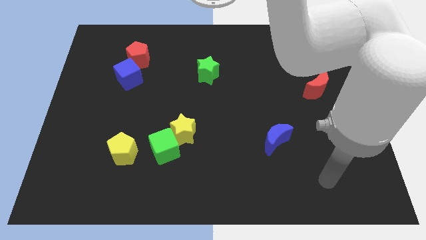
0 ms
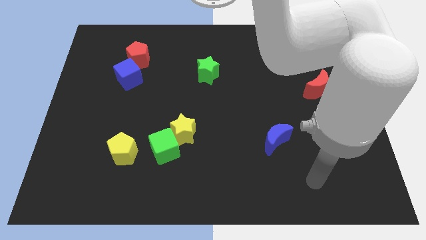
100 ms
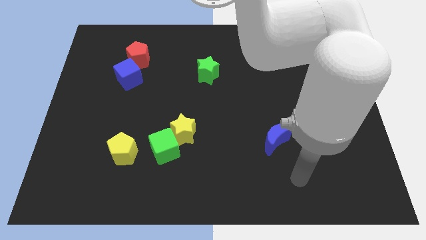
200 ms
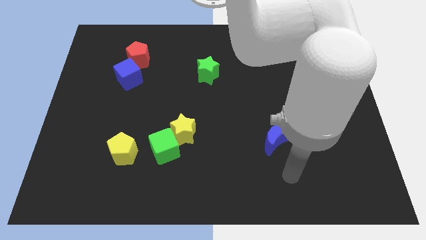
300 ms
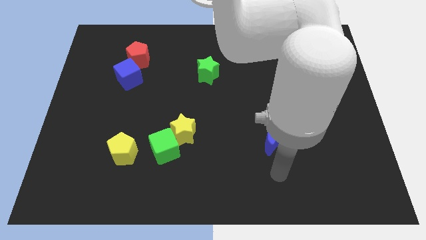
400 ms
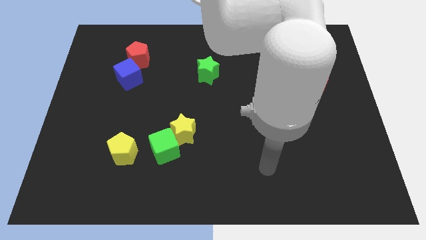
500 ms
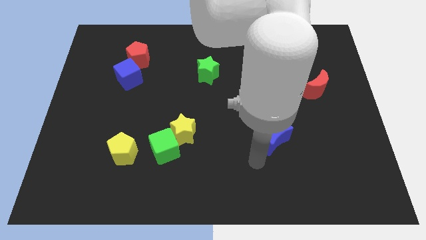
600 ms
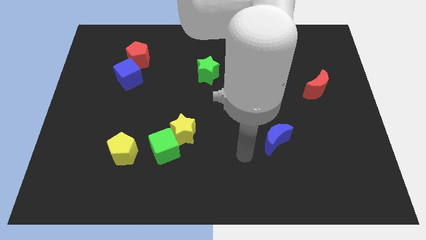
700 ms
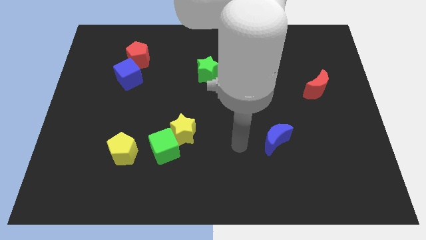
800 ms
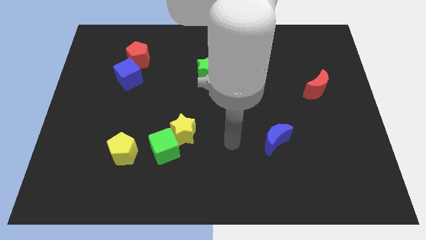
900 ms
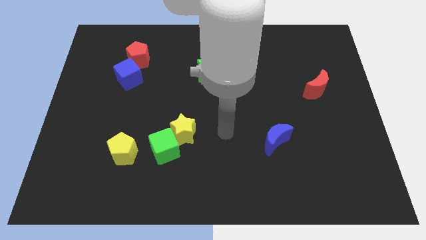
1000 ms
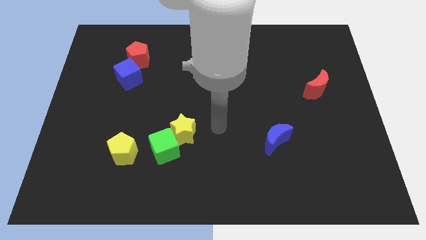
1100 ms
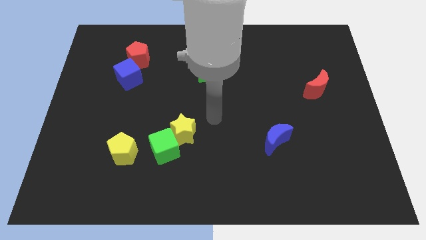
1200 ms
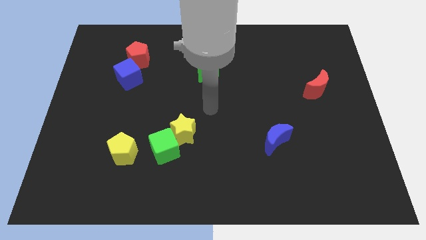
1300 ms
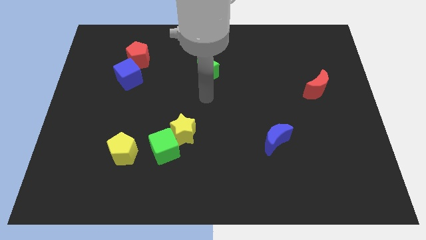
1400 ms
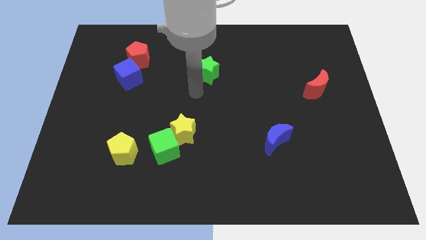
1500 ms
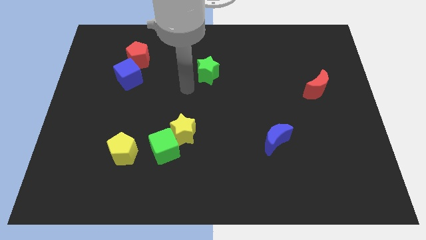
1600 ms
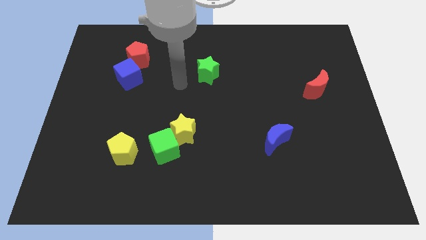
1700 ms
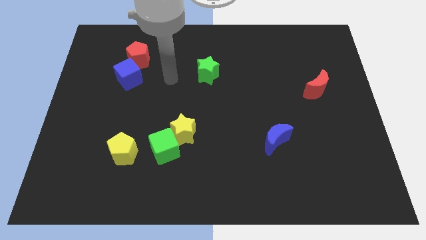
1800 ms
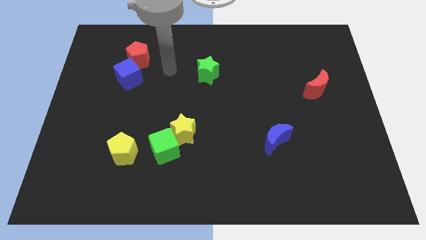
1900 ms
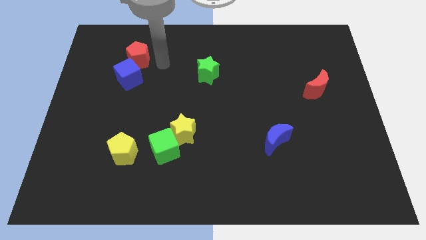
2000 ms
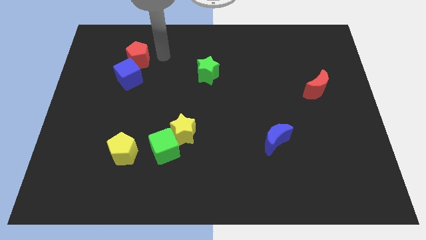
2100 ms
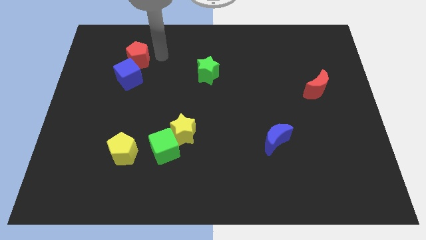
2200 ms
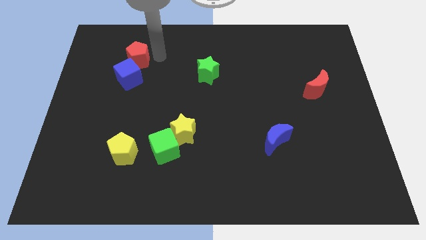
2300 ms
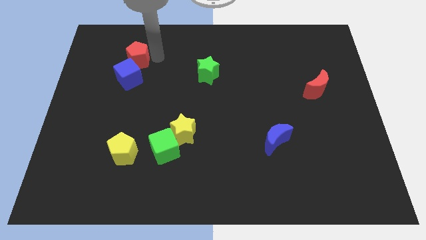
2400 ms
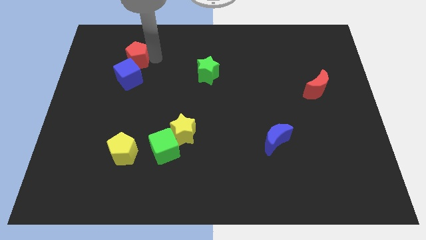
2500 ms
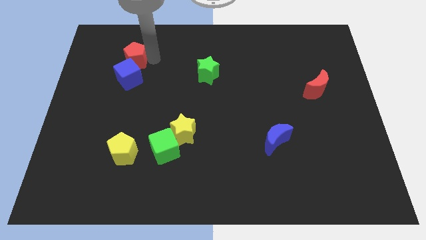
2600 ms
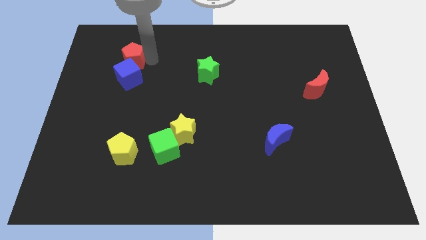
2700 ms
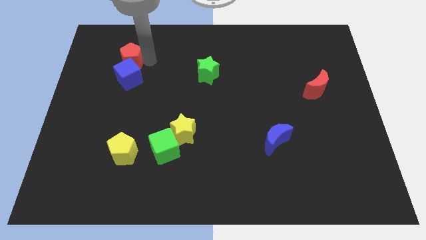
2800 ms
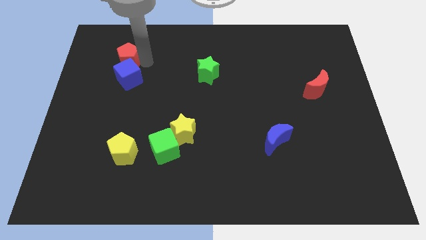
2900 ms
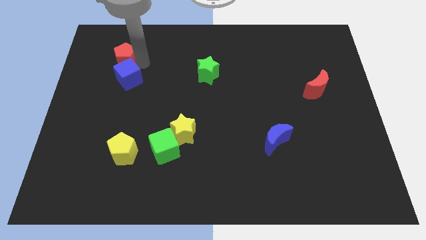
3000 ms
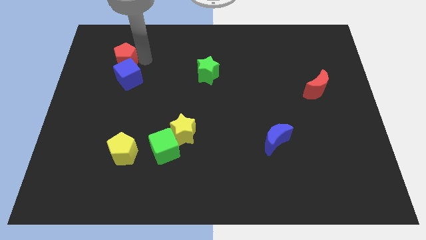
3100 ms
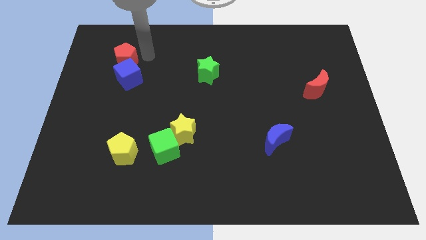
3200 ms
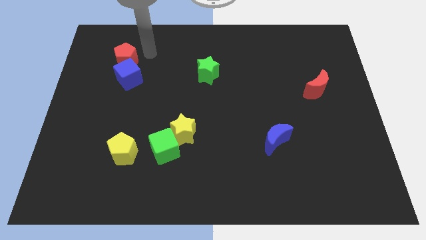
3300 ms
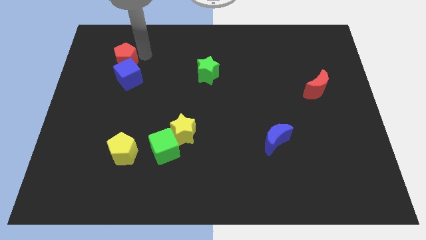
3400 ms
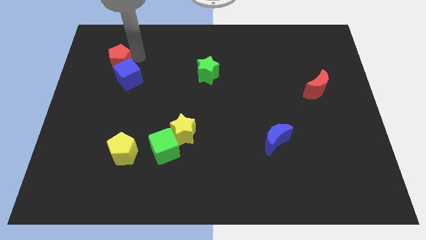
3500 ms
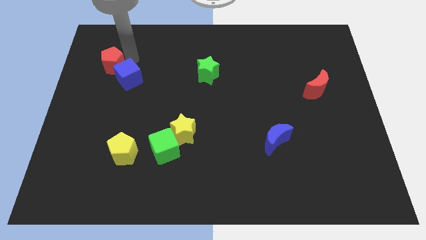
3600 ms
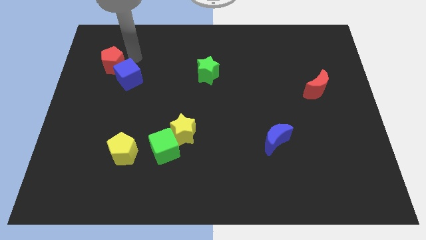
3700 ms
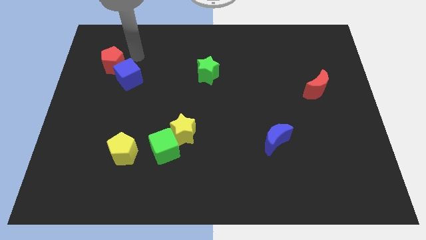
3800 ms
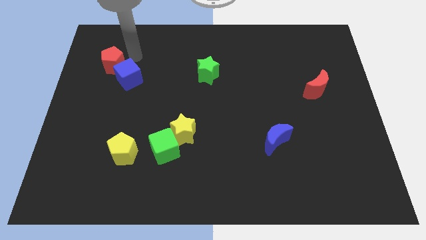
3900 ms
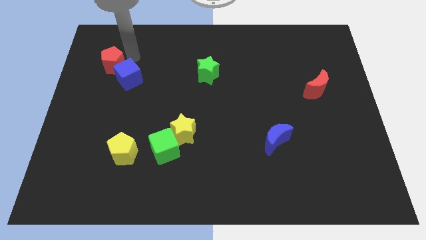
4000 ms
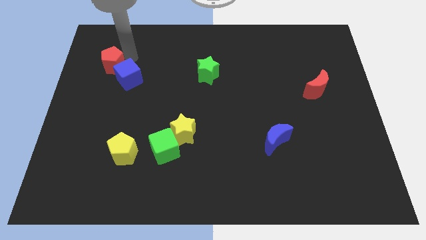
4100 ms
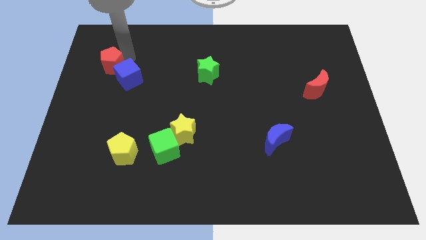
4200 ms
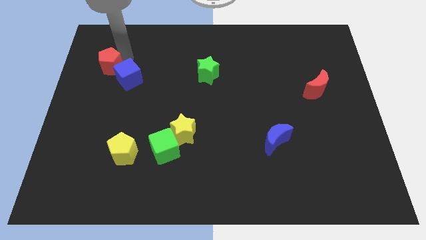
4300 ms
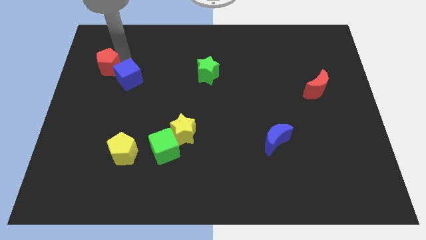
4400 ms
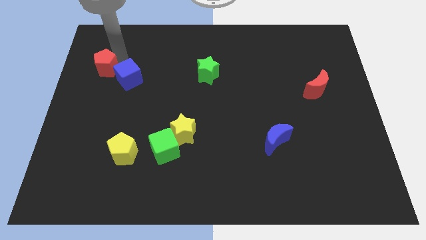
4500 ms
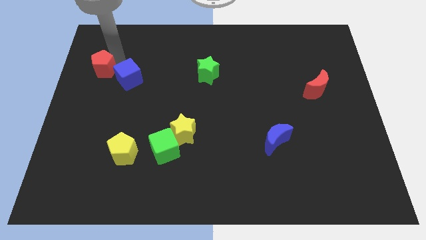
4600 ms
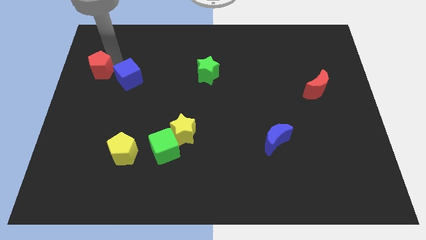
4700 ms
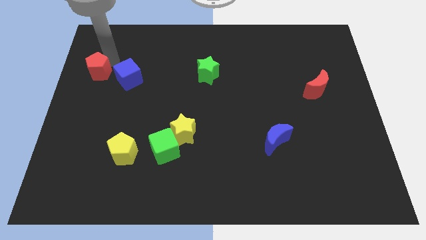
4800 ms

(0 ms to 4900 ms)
put the red pentagon to the center left

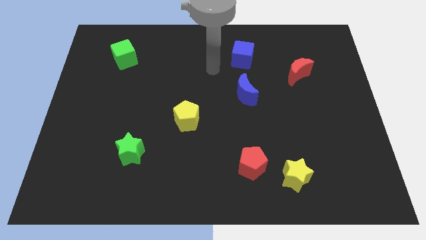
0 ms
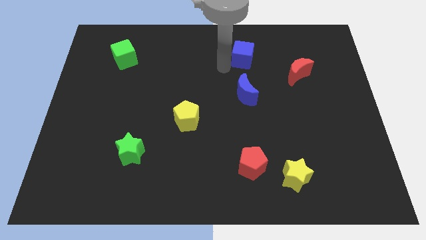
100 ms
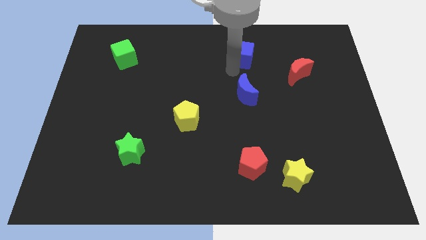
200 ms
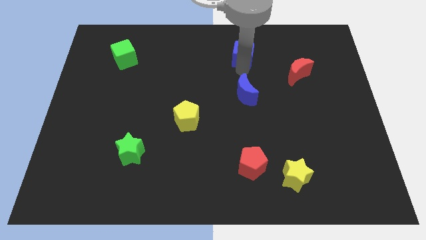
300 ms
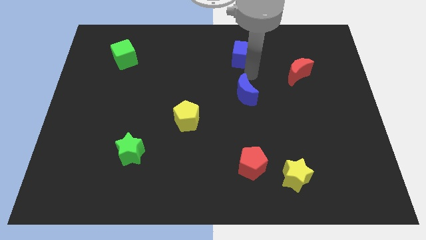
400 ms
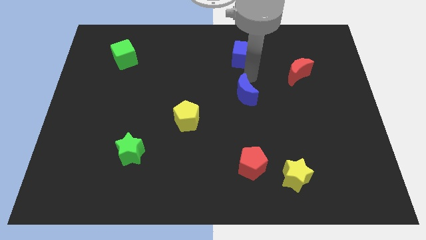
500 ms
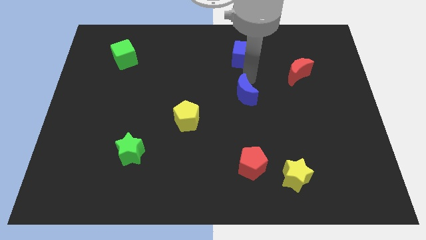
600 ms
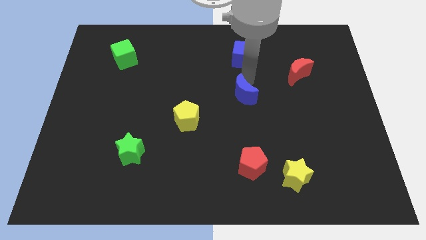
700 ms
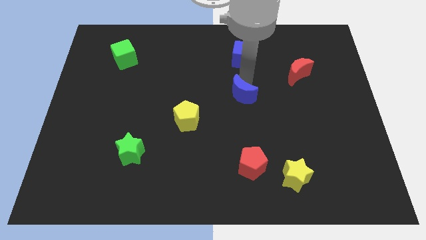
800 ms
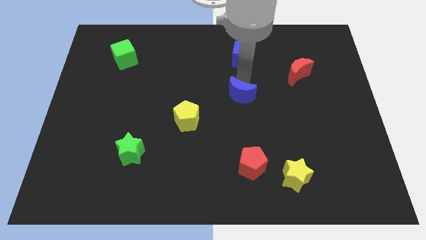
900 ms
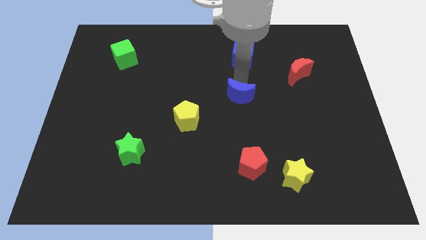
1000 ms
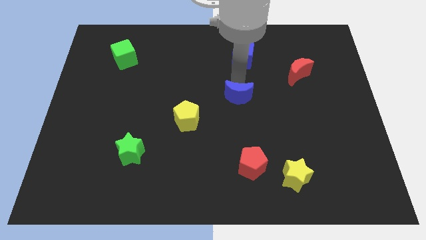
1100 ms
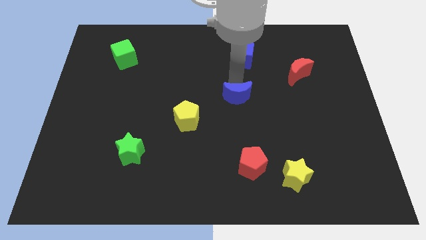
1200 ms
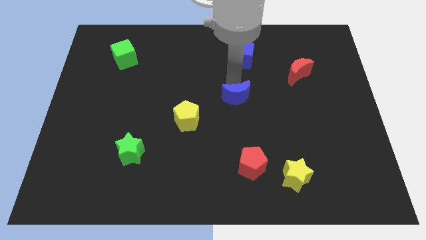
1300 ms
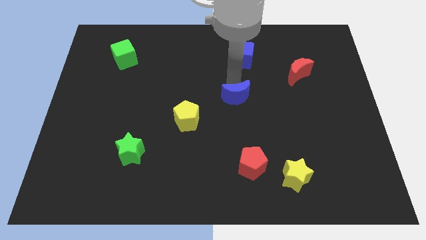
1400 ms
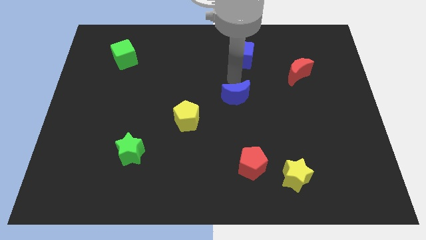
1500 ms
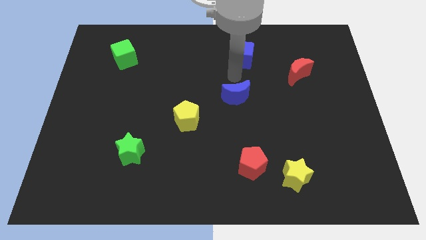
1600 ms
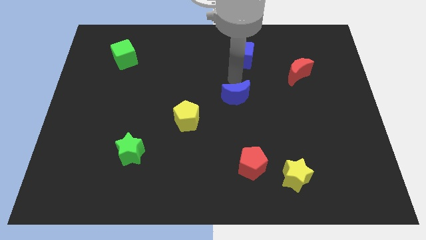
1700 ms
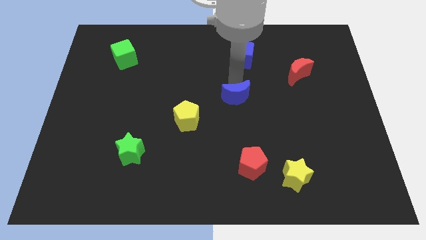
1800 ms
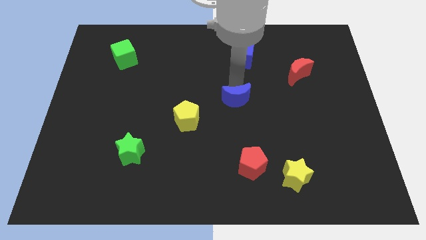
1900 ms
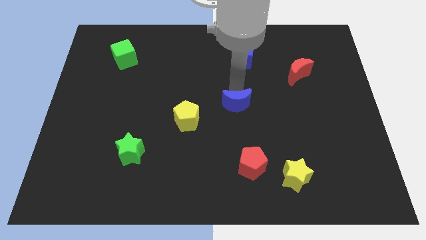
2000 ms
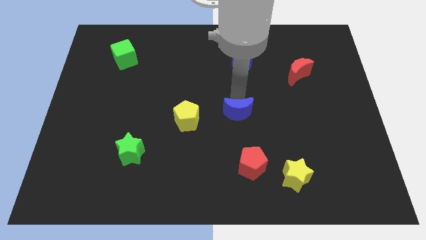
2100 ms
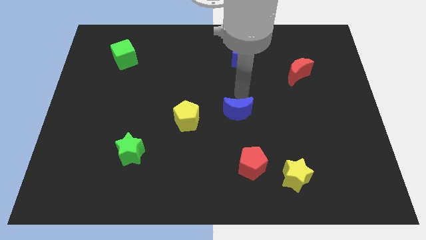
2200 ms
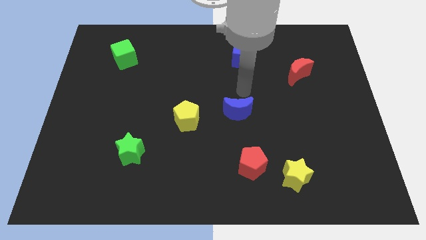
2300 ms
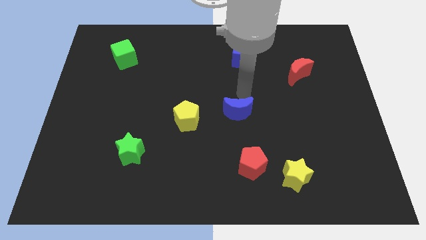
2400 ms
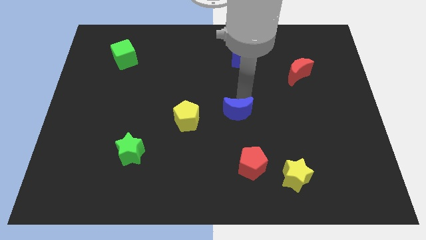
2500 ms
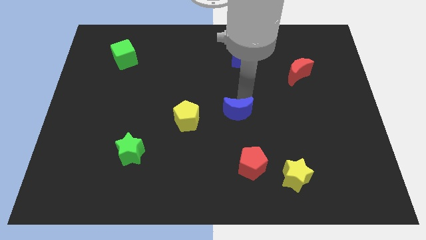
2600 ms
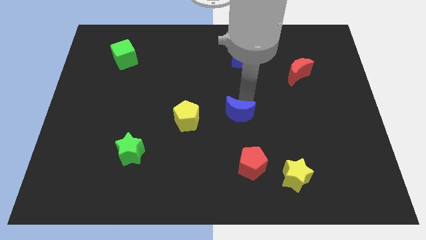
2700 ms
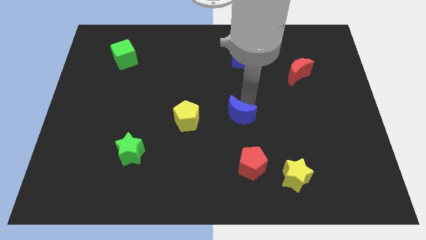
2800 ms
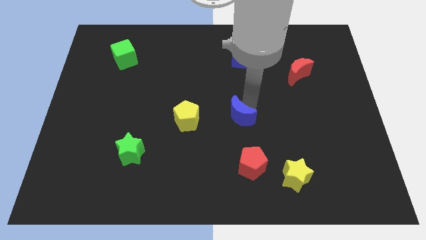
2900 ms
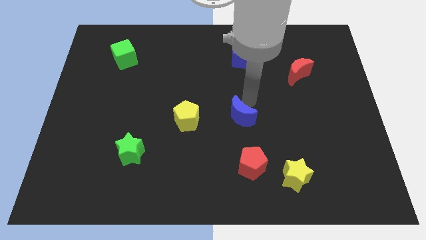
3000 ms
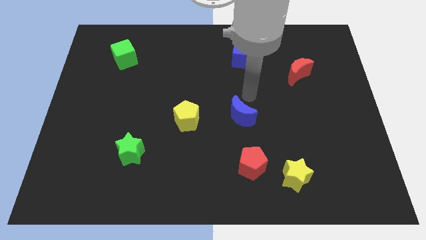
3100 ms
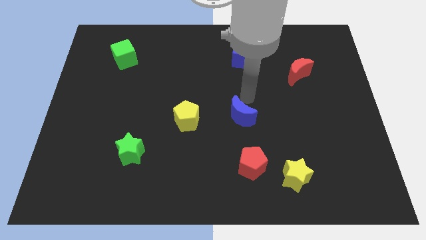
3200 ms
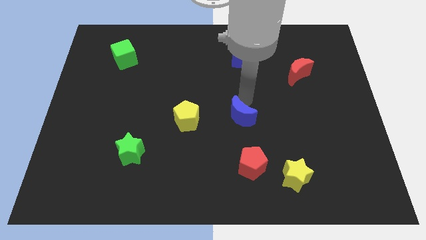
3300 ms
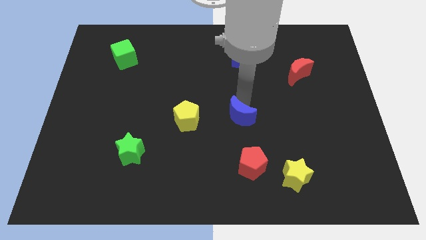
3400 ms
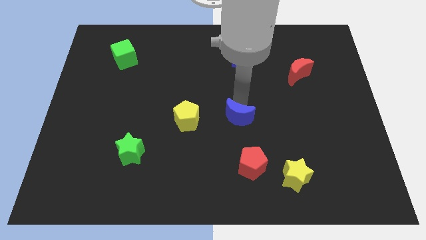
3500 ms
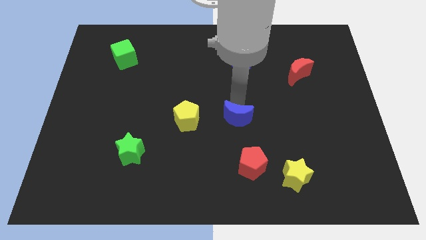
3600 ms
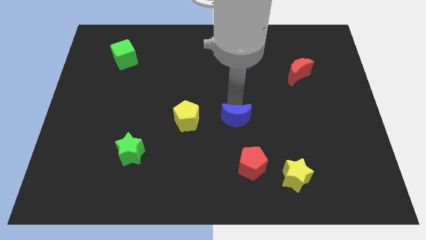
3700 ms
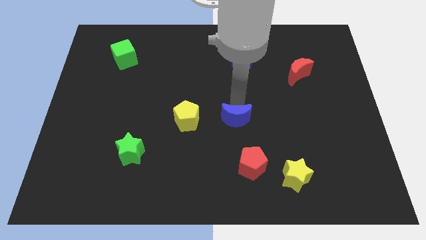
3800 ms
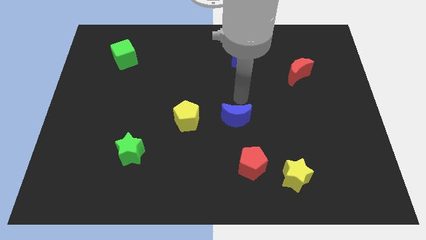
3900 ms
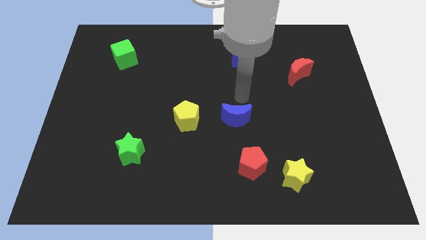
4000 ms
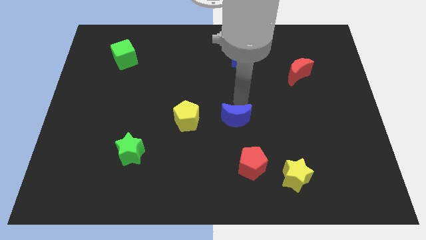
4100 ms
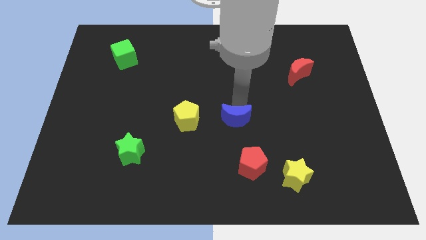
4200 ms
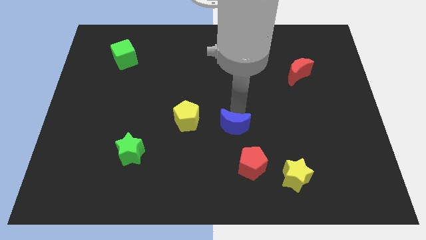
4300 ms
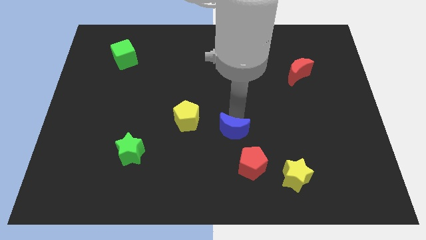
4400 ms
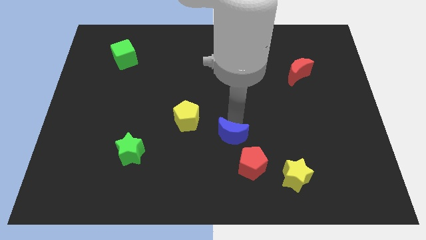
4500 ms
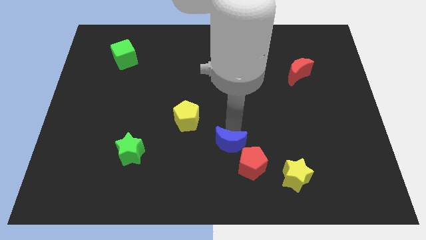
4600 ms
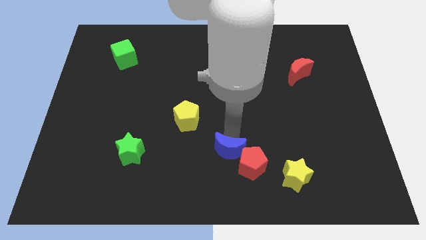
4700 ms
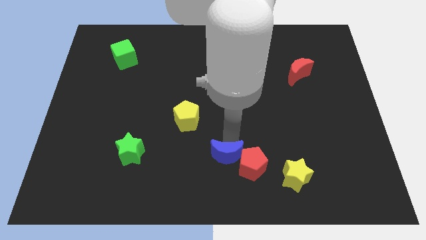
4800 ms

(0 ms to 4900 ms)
push the blue moon to the bottom side
